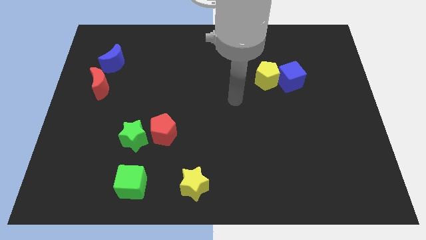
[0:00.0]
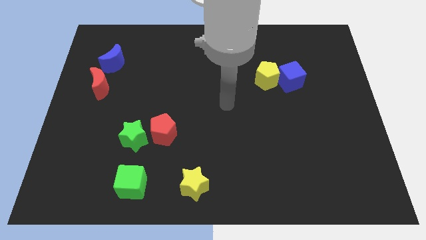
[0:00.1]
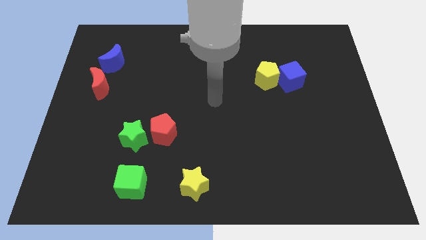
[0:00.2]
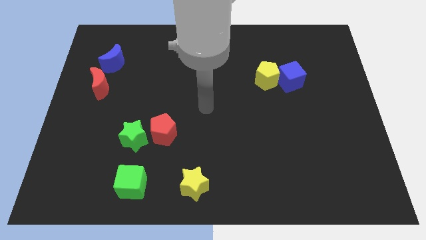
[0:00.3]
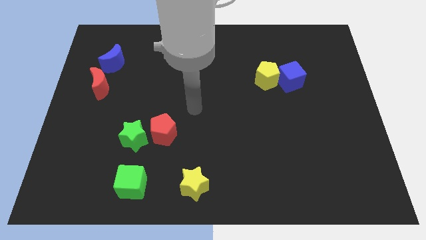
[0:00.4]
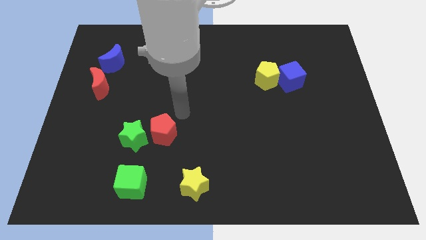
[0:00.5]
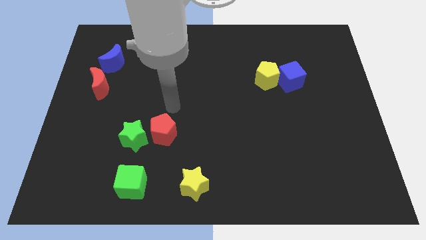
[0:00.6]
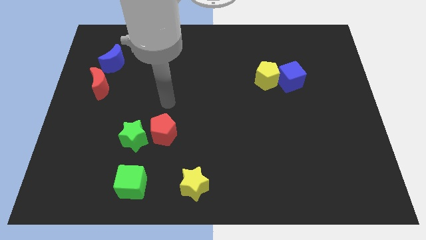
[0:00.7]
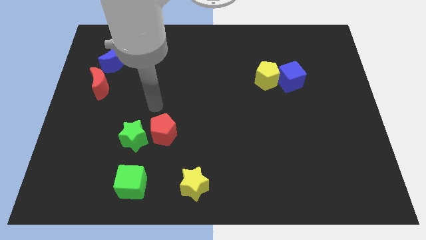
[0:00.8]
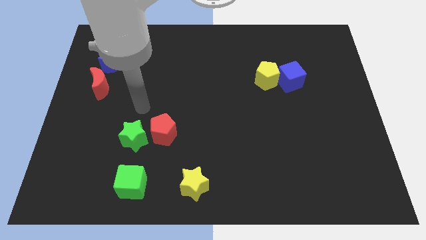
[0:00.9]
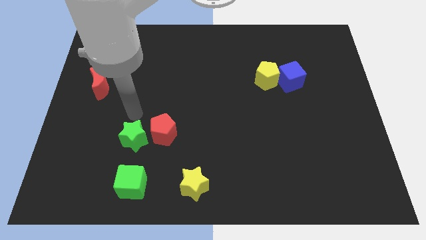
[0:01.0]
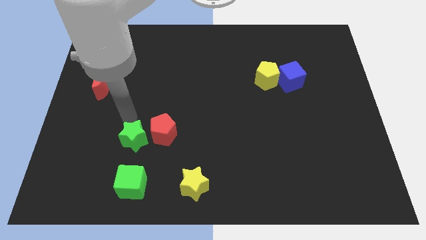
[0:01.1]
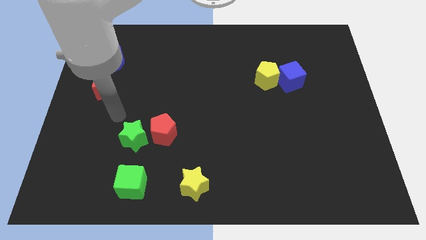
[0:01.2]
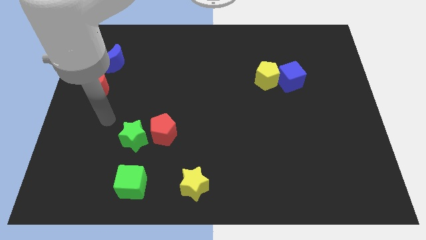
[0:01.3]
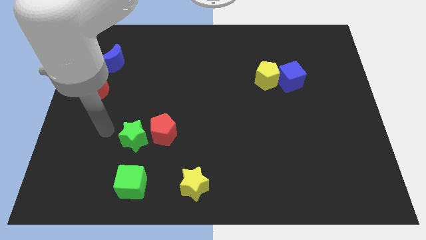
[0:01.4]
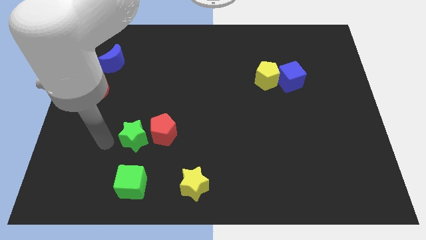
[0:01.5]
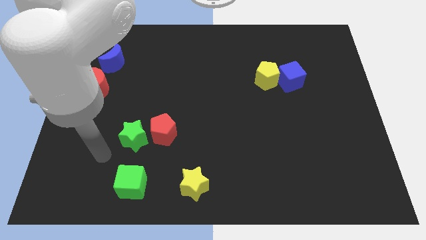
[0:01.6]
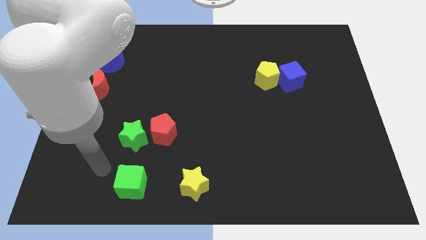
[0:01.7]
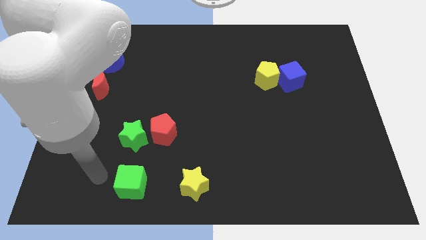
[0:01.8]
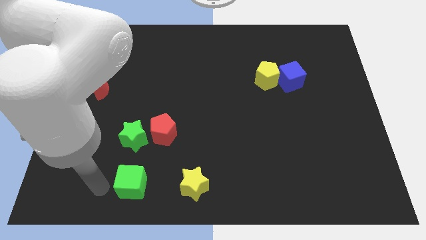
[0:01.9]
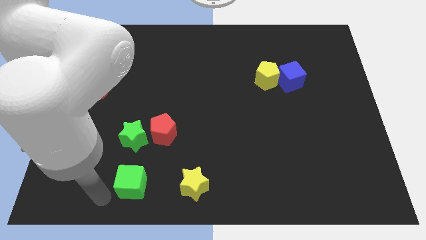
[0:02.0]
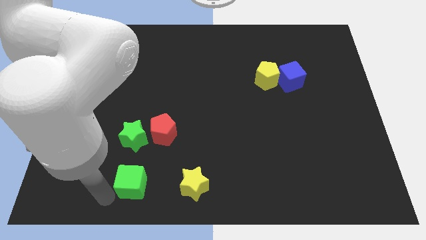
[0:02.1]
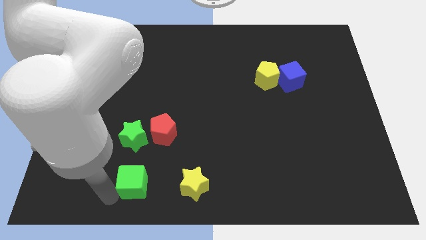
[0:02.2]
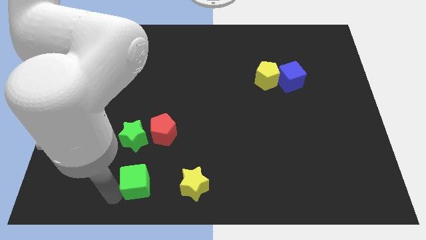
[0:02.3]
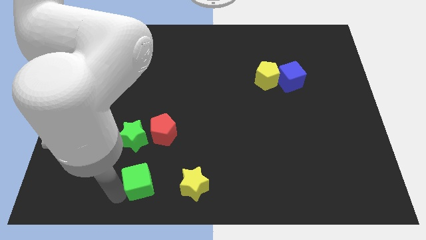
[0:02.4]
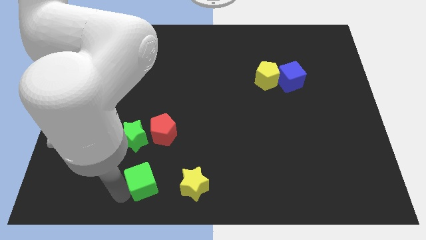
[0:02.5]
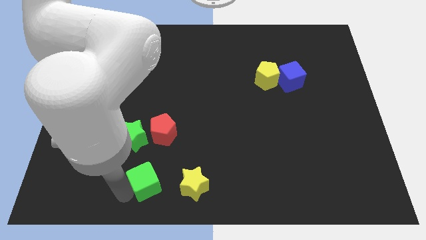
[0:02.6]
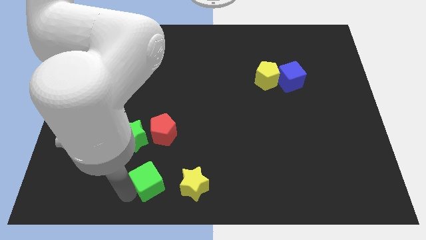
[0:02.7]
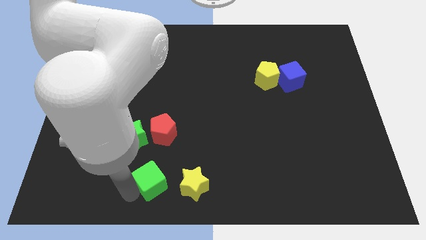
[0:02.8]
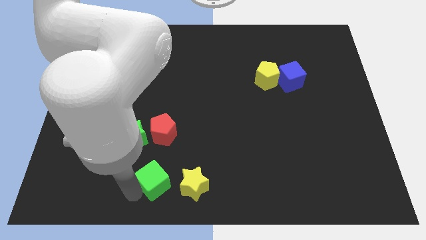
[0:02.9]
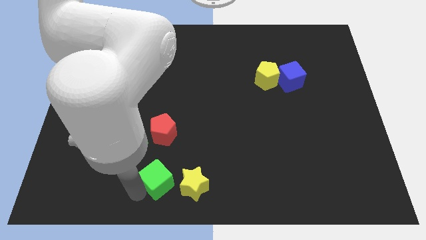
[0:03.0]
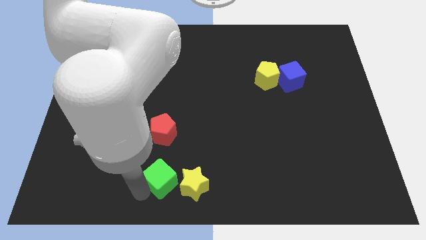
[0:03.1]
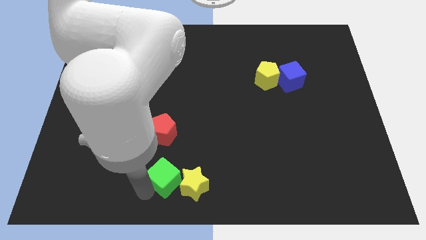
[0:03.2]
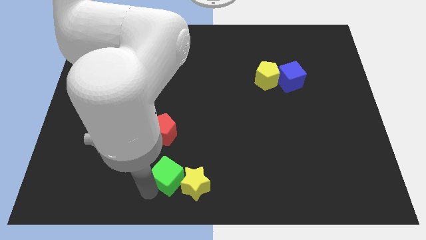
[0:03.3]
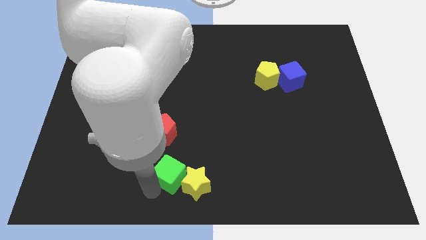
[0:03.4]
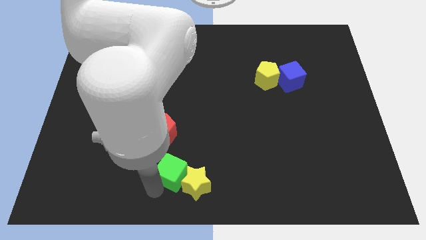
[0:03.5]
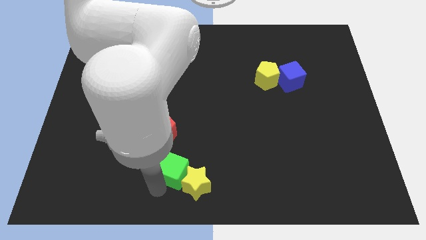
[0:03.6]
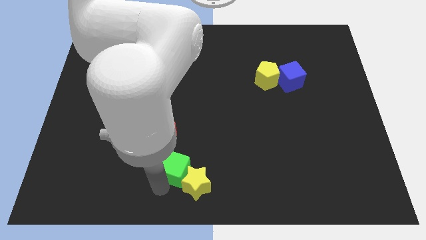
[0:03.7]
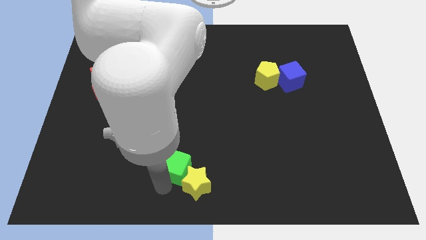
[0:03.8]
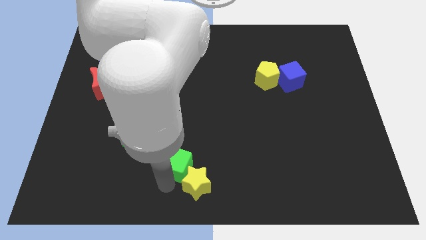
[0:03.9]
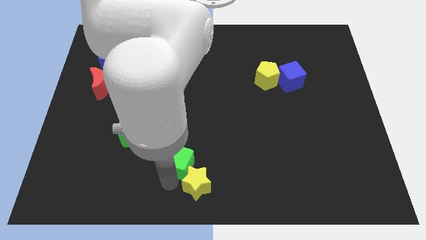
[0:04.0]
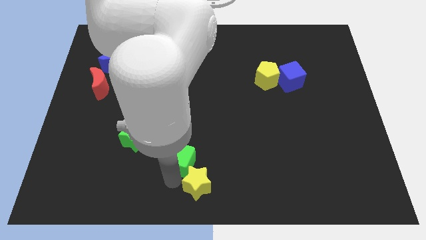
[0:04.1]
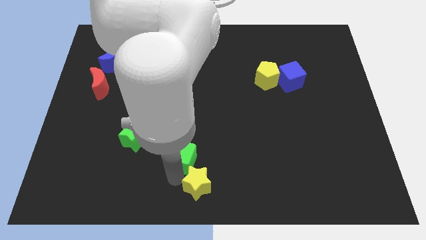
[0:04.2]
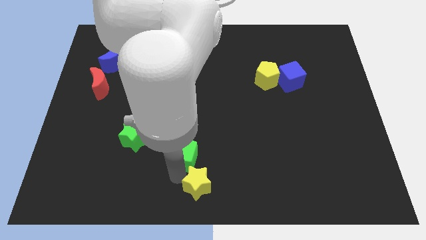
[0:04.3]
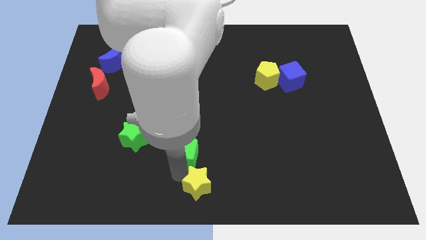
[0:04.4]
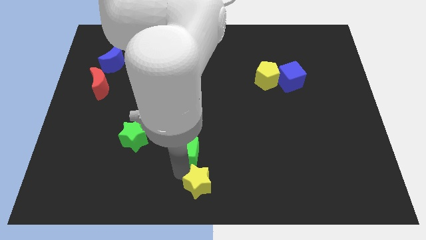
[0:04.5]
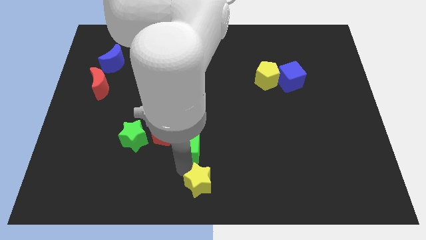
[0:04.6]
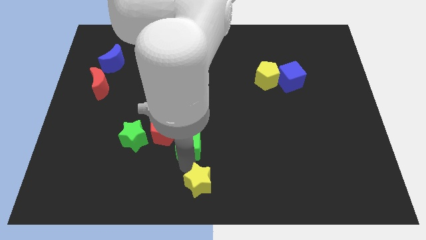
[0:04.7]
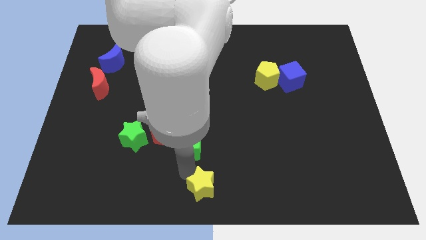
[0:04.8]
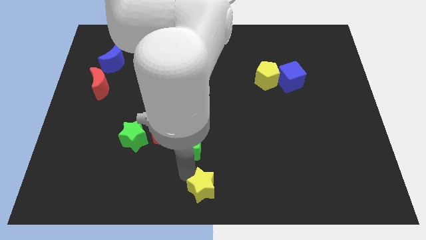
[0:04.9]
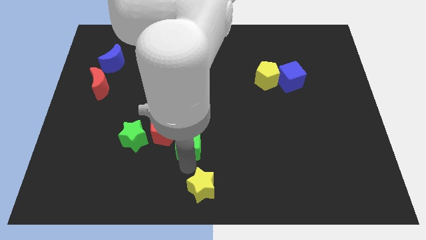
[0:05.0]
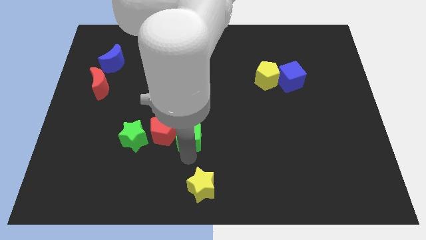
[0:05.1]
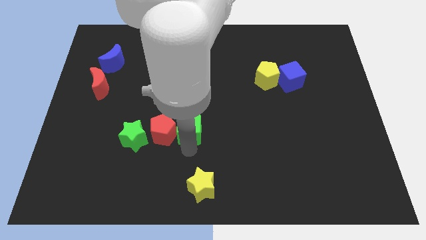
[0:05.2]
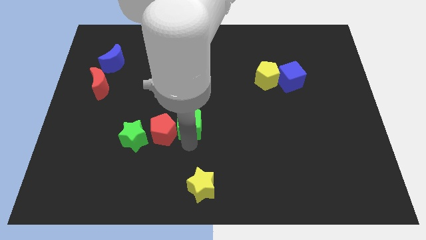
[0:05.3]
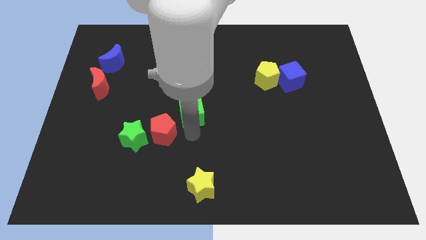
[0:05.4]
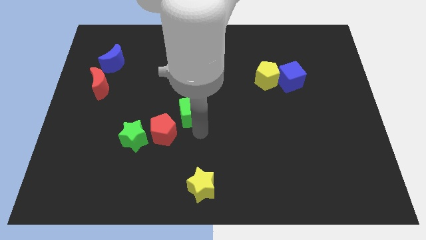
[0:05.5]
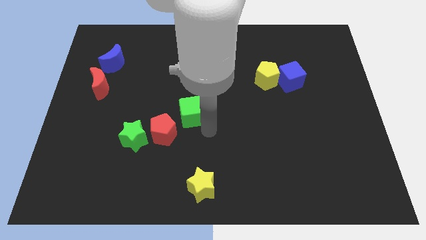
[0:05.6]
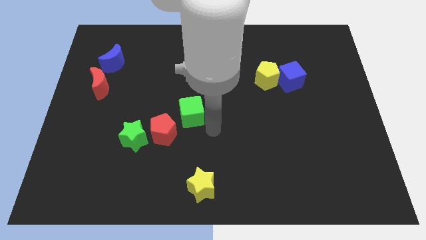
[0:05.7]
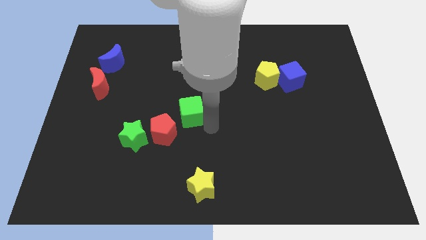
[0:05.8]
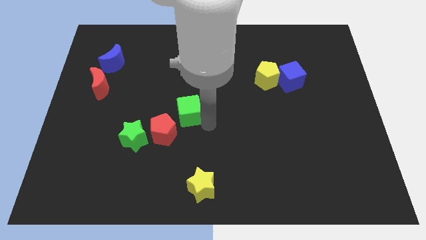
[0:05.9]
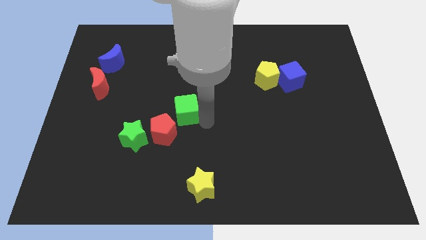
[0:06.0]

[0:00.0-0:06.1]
put the green cube above the red pentagon

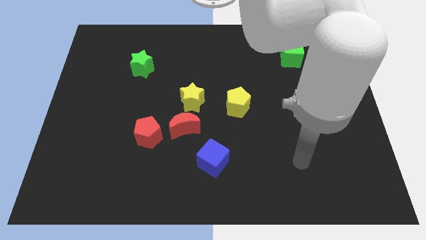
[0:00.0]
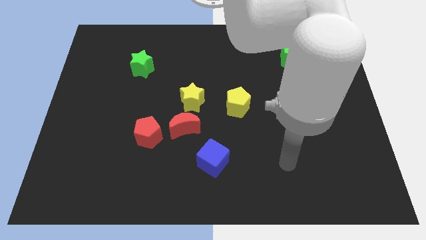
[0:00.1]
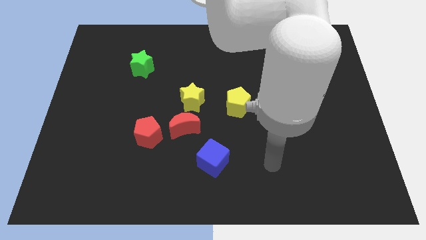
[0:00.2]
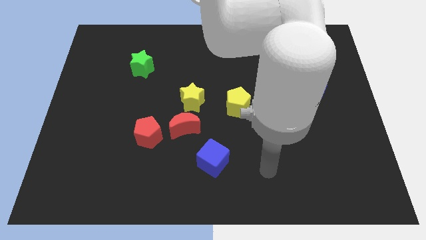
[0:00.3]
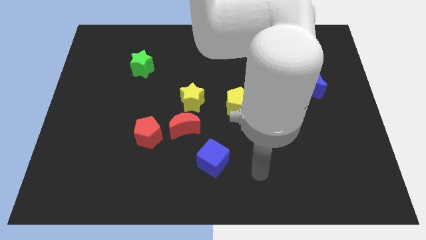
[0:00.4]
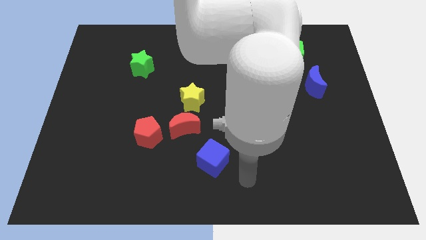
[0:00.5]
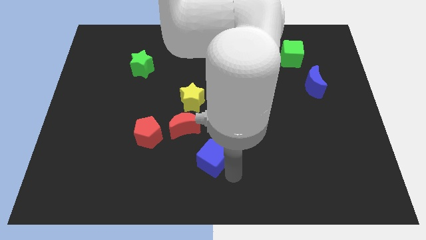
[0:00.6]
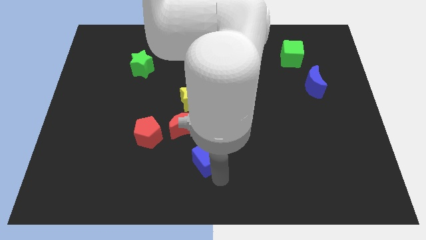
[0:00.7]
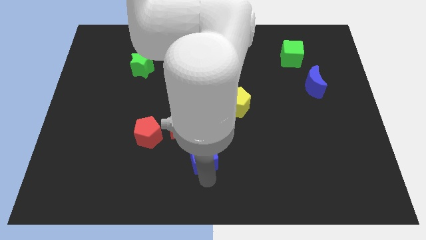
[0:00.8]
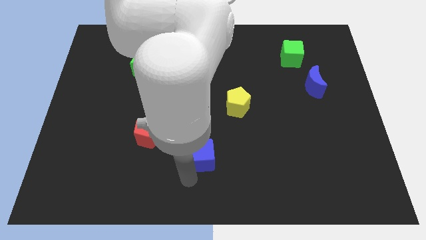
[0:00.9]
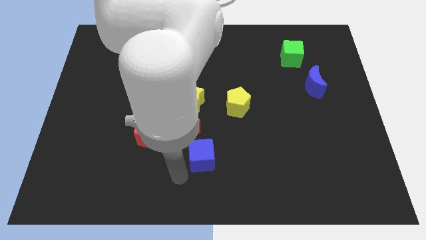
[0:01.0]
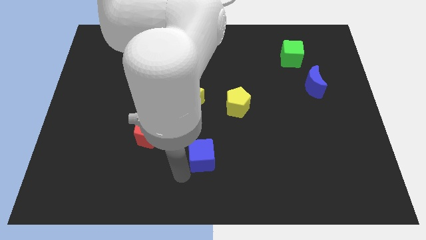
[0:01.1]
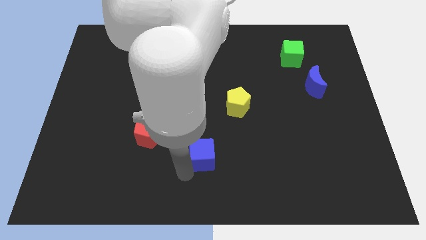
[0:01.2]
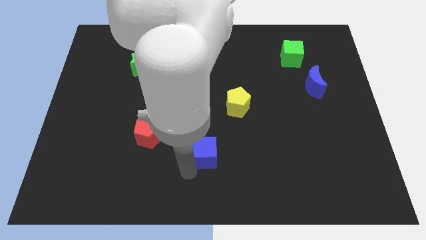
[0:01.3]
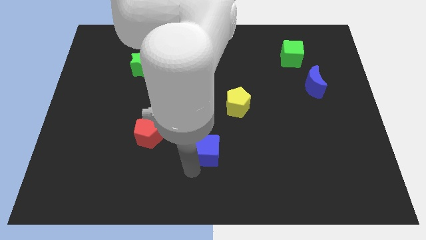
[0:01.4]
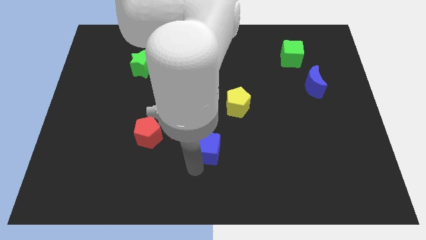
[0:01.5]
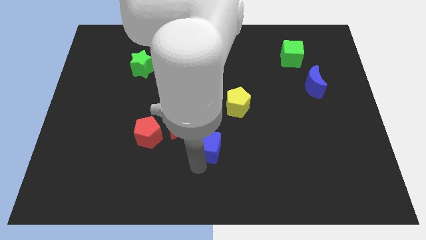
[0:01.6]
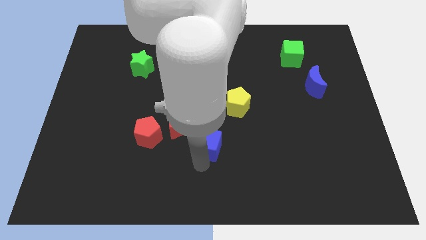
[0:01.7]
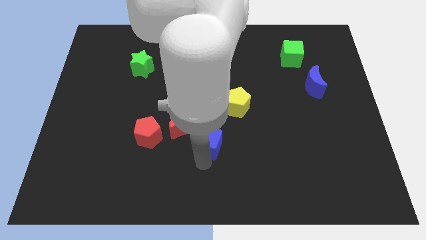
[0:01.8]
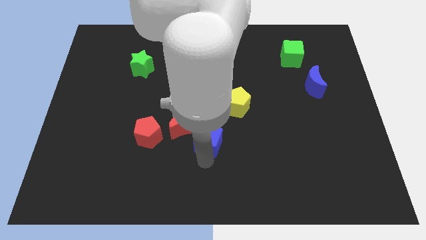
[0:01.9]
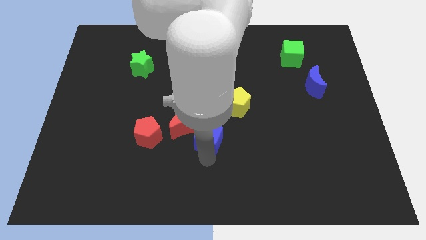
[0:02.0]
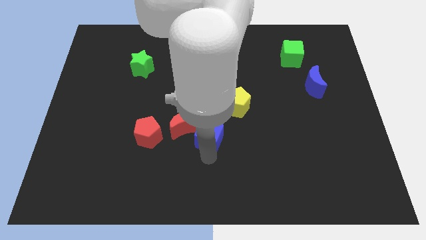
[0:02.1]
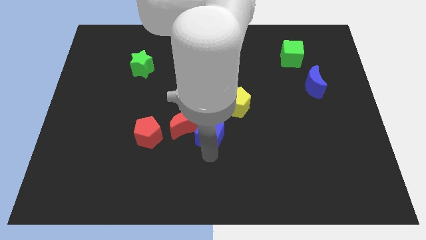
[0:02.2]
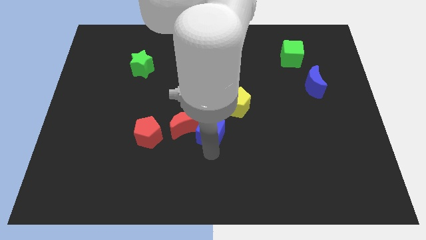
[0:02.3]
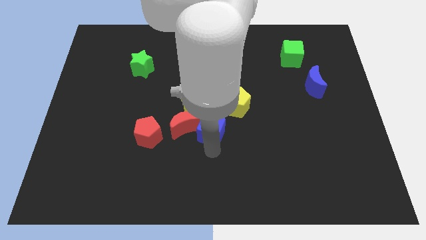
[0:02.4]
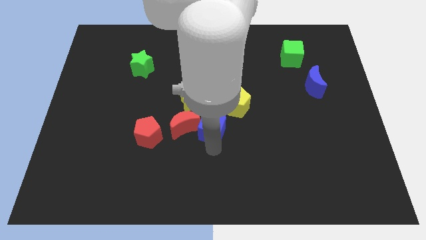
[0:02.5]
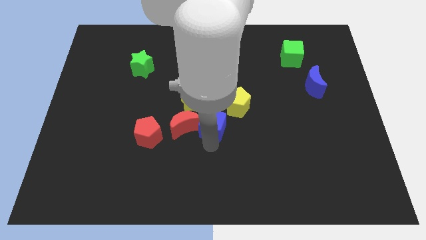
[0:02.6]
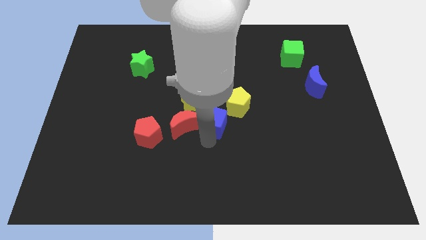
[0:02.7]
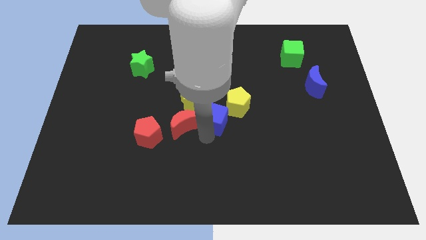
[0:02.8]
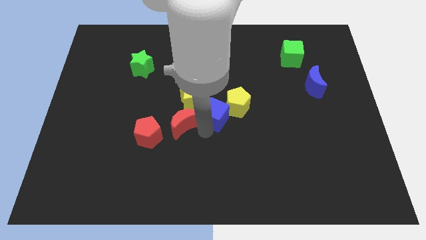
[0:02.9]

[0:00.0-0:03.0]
put the blue cube just right of the yellow star
